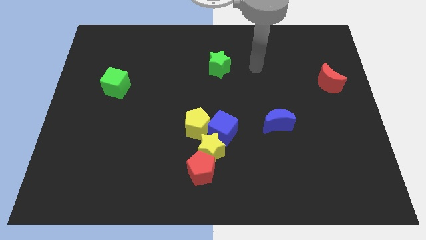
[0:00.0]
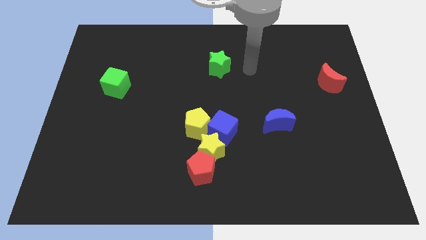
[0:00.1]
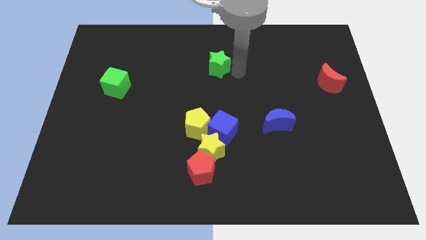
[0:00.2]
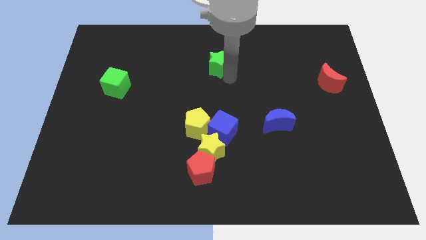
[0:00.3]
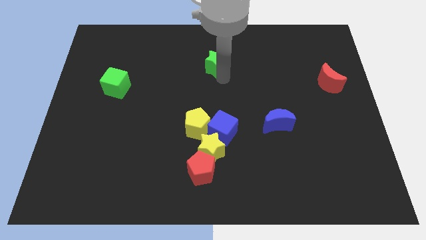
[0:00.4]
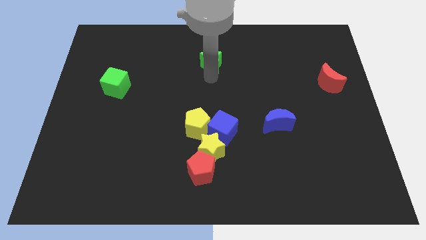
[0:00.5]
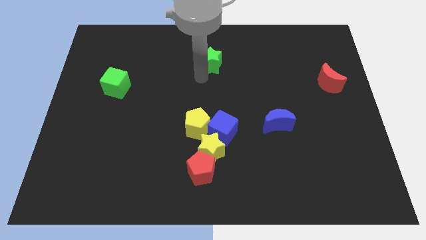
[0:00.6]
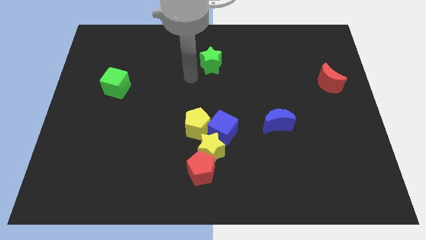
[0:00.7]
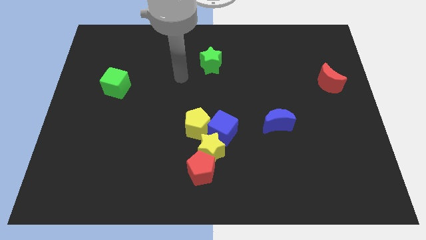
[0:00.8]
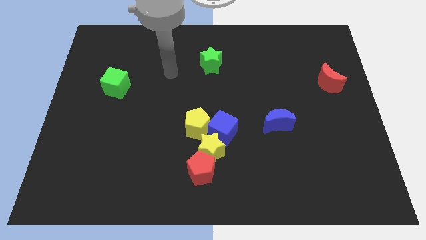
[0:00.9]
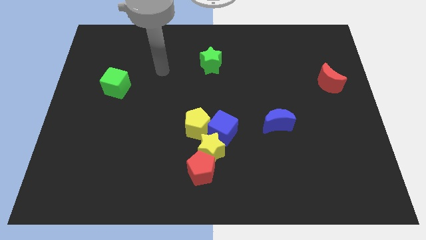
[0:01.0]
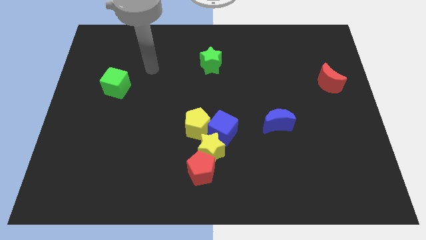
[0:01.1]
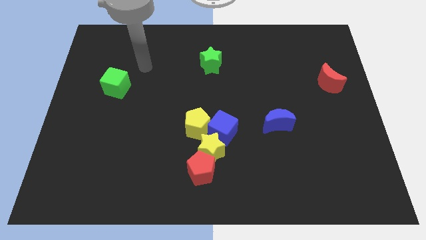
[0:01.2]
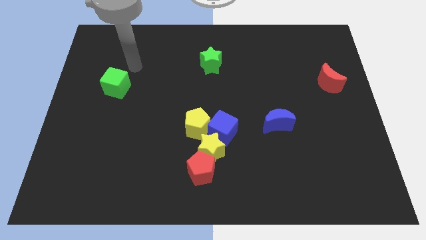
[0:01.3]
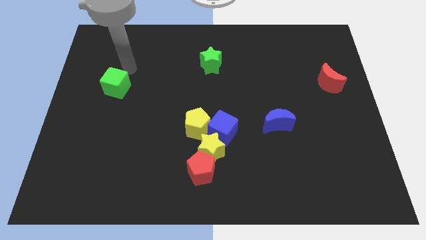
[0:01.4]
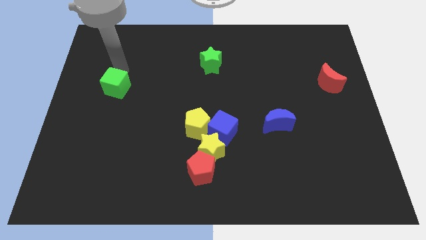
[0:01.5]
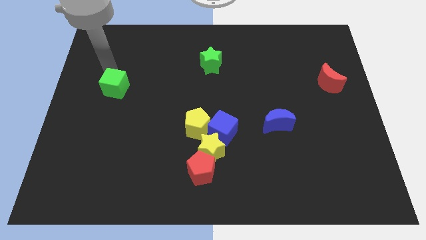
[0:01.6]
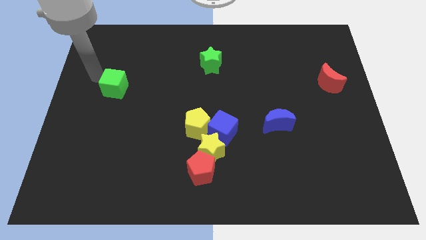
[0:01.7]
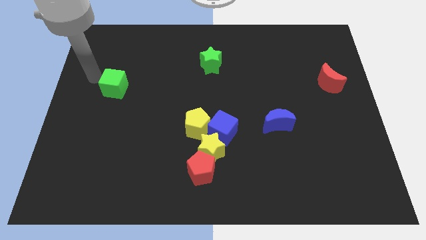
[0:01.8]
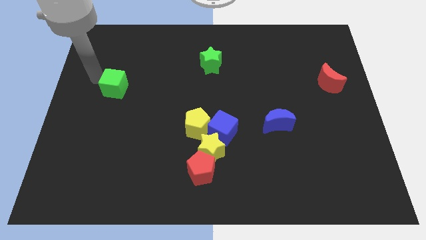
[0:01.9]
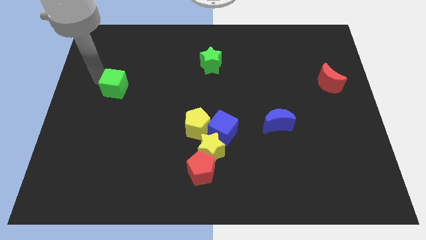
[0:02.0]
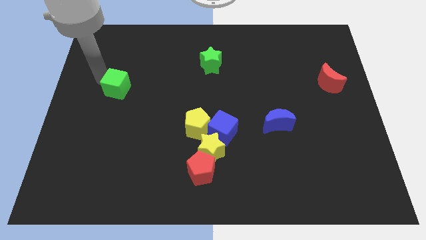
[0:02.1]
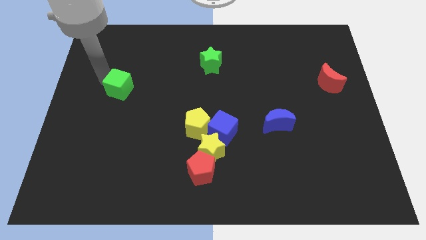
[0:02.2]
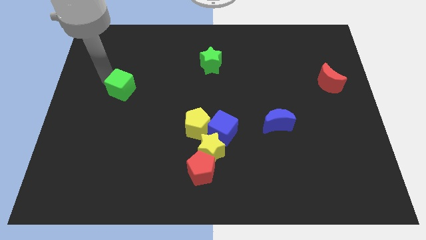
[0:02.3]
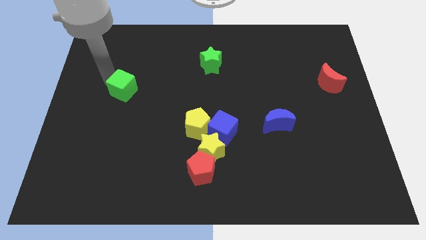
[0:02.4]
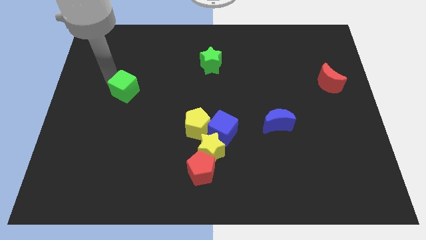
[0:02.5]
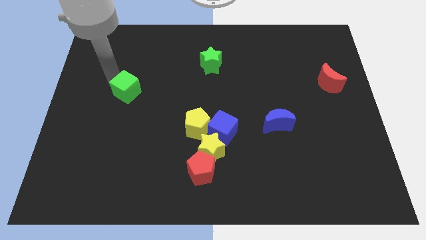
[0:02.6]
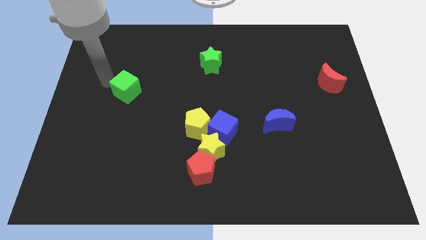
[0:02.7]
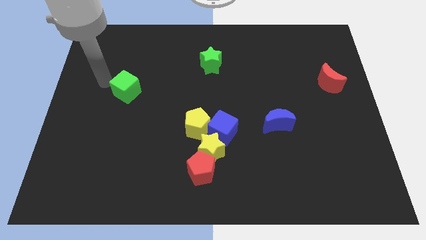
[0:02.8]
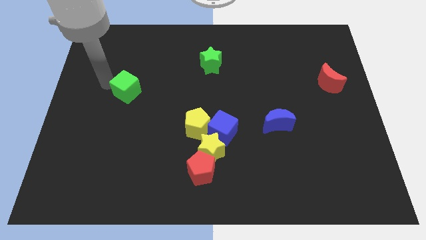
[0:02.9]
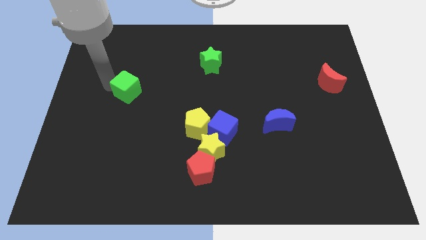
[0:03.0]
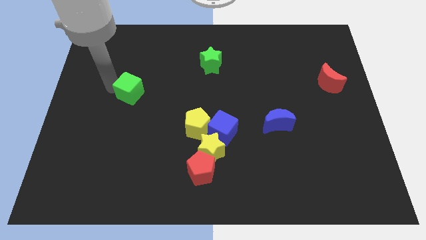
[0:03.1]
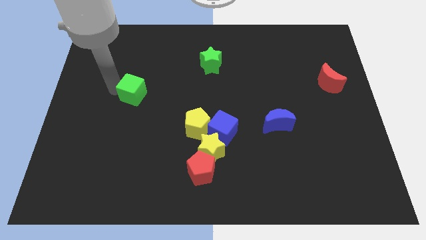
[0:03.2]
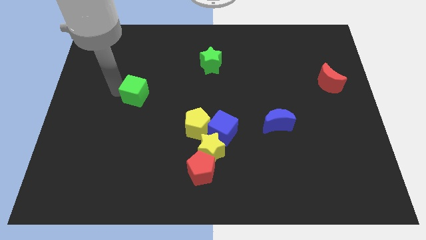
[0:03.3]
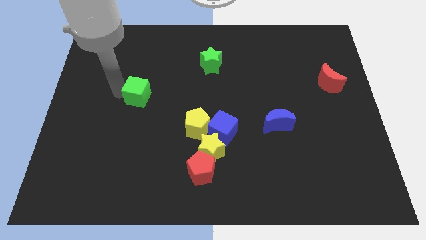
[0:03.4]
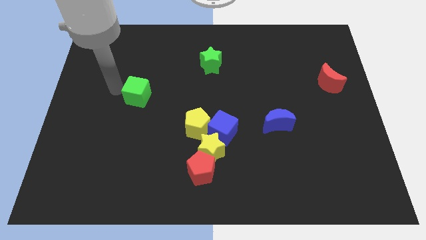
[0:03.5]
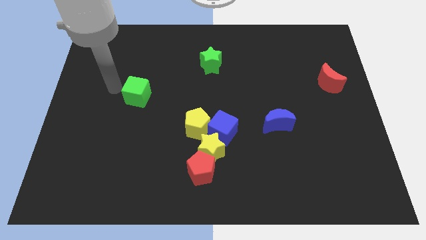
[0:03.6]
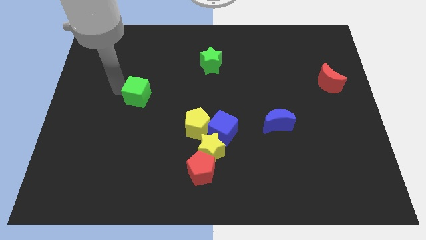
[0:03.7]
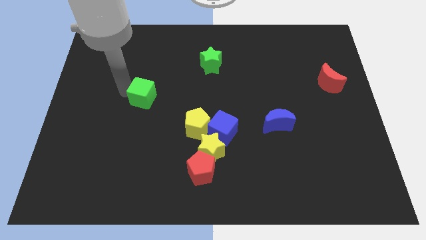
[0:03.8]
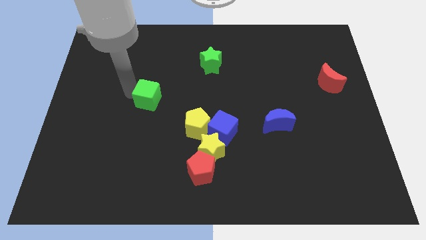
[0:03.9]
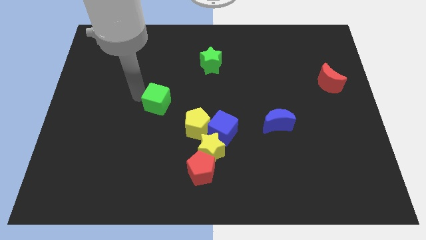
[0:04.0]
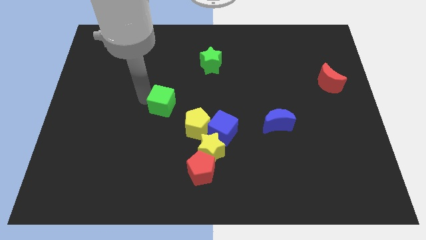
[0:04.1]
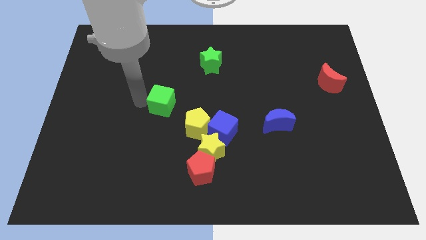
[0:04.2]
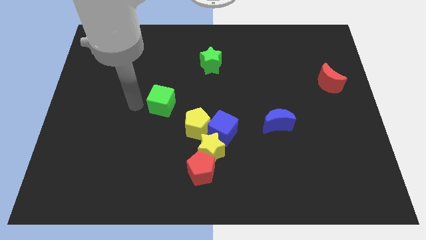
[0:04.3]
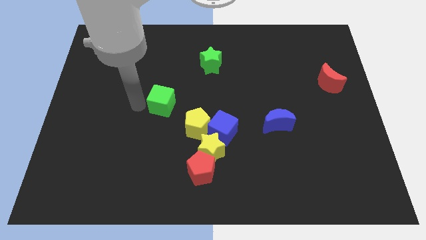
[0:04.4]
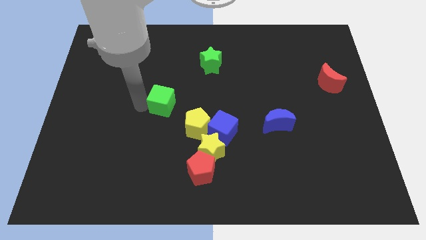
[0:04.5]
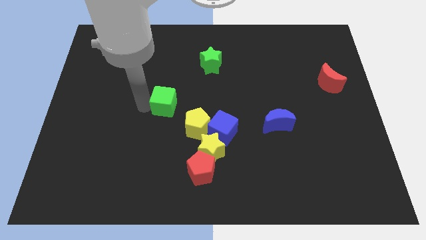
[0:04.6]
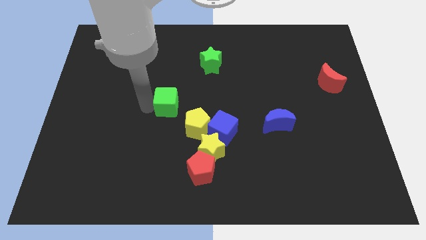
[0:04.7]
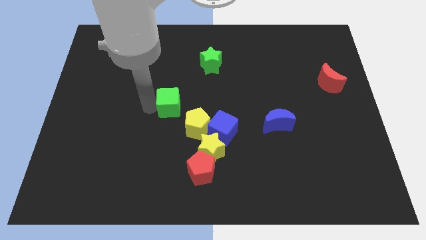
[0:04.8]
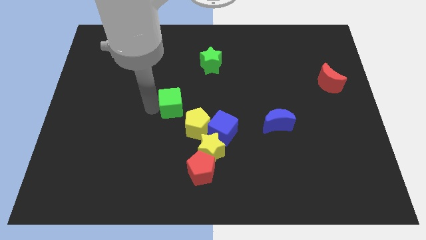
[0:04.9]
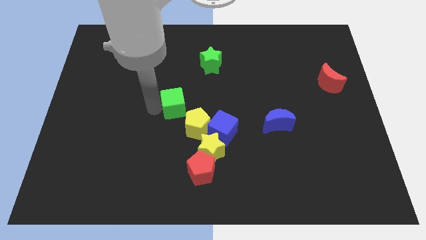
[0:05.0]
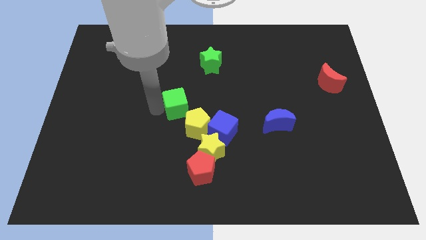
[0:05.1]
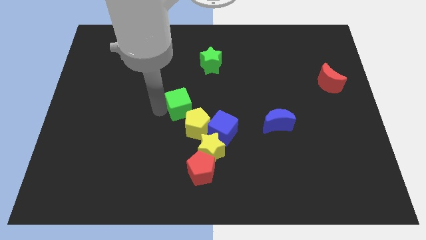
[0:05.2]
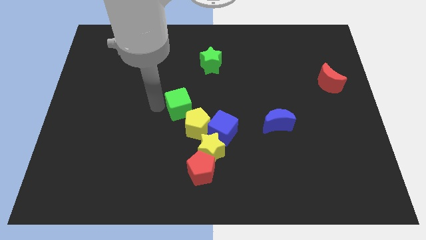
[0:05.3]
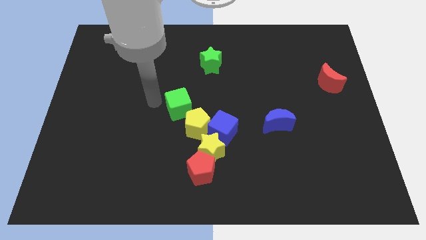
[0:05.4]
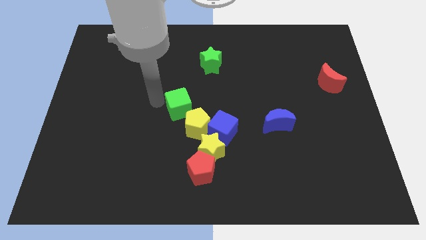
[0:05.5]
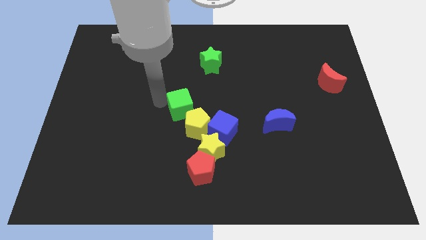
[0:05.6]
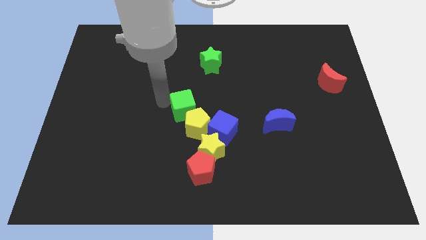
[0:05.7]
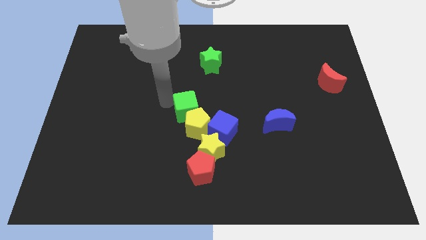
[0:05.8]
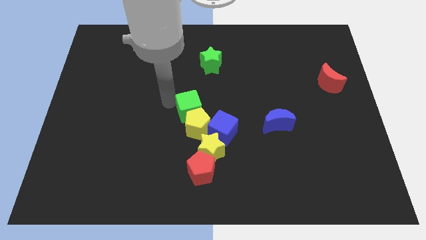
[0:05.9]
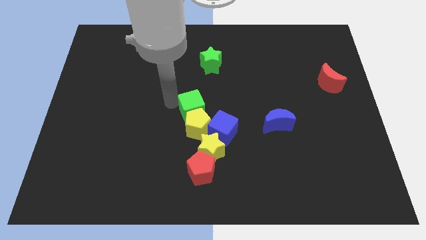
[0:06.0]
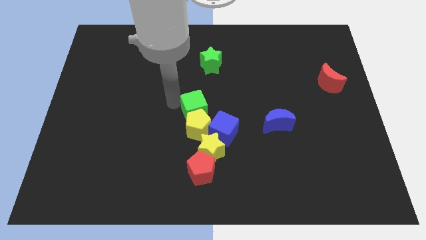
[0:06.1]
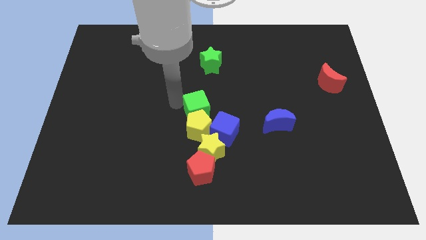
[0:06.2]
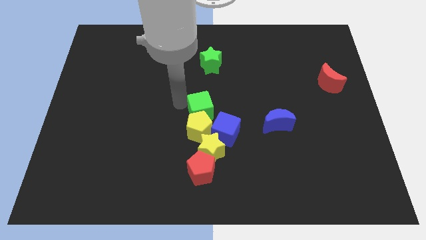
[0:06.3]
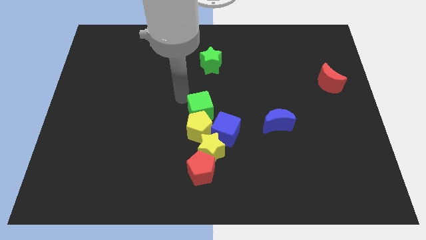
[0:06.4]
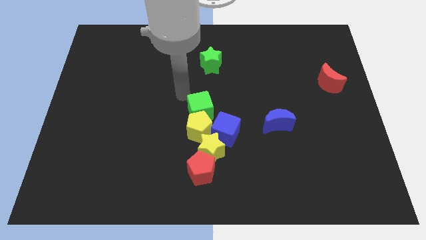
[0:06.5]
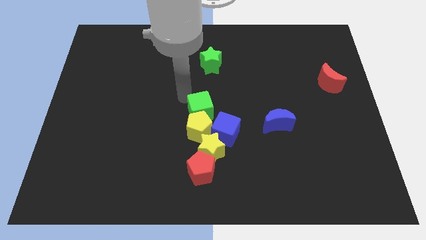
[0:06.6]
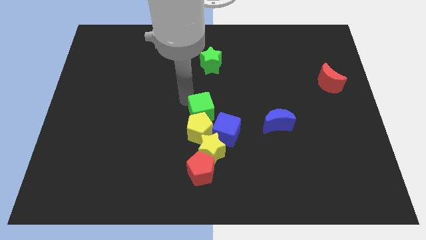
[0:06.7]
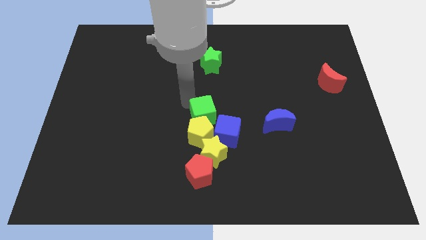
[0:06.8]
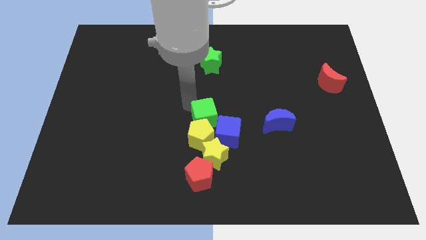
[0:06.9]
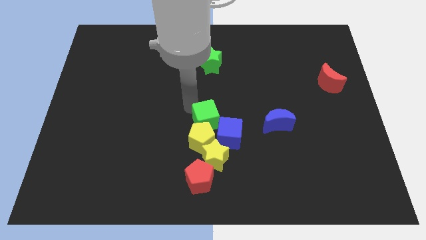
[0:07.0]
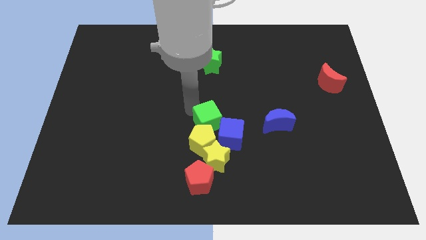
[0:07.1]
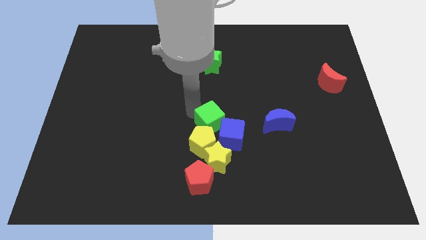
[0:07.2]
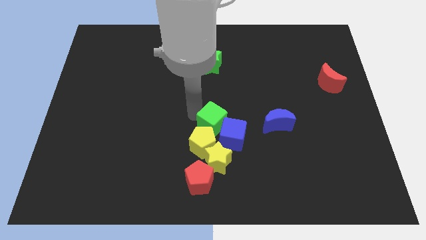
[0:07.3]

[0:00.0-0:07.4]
slide the green cube close to the blue cube
